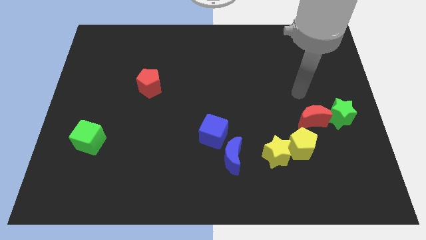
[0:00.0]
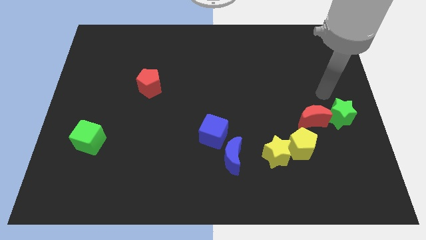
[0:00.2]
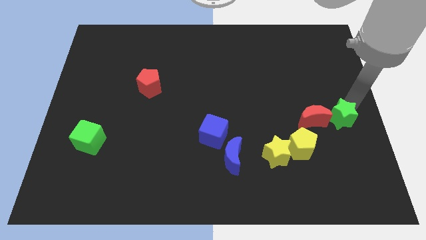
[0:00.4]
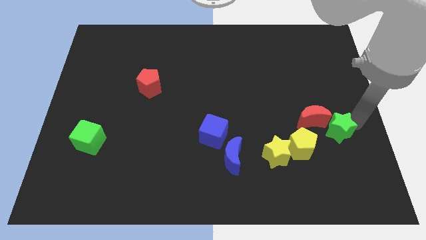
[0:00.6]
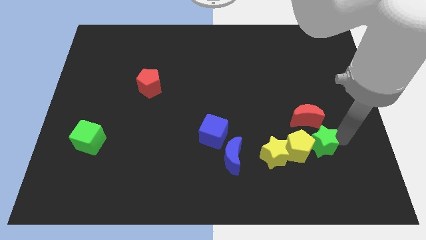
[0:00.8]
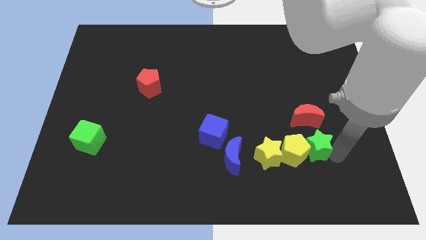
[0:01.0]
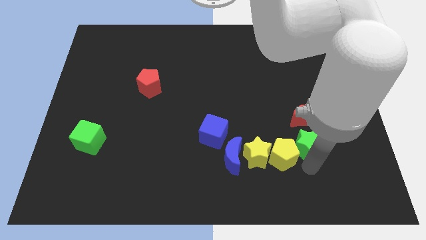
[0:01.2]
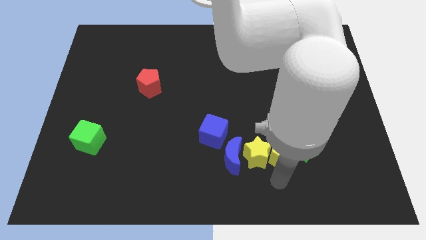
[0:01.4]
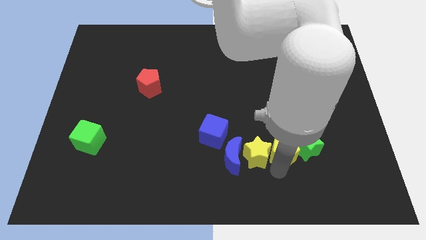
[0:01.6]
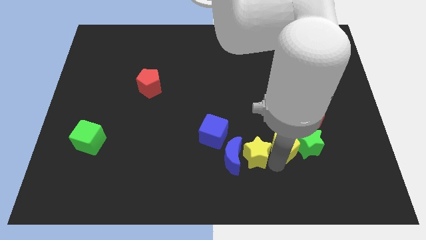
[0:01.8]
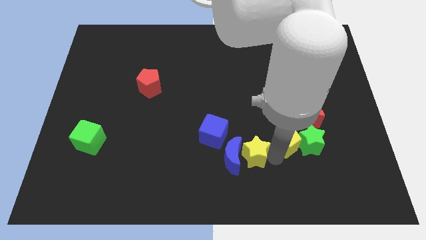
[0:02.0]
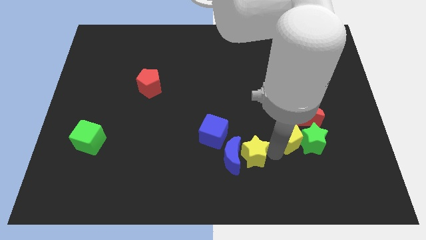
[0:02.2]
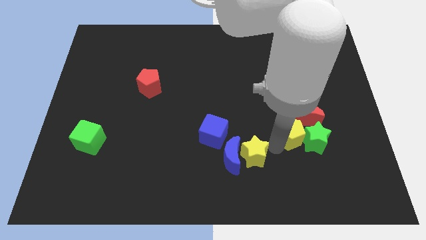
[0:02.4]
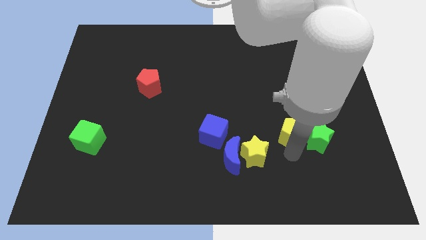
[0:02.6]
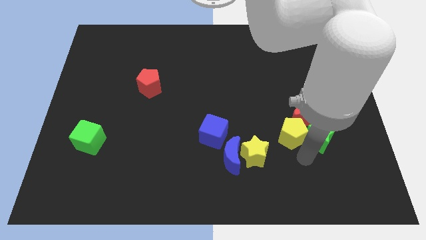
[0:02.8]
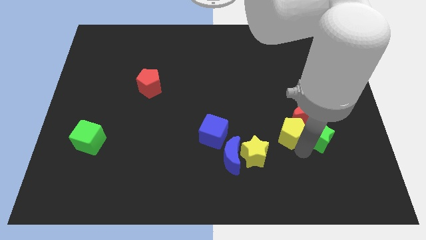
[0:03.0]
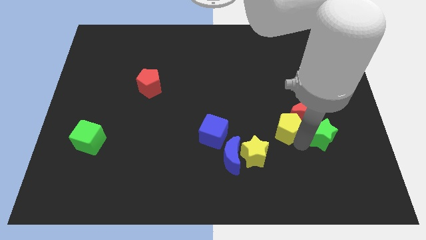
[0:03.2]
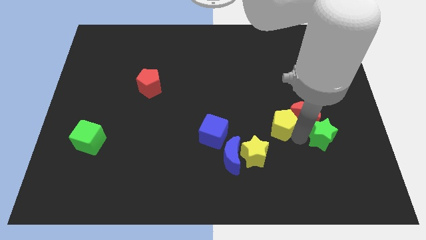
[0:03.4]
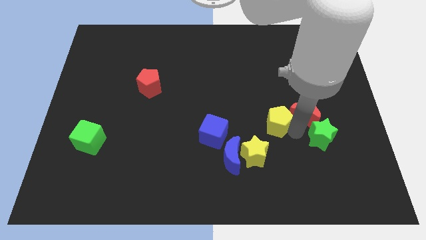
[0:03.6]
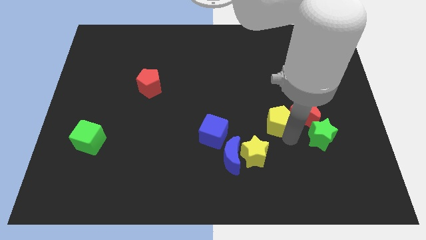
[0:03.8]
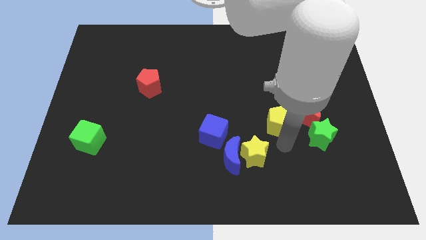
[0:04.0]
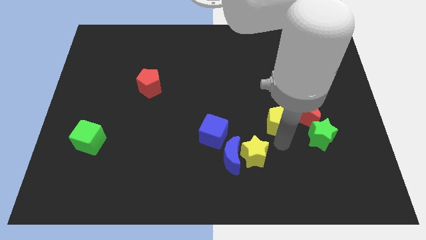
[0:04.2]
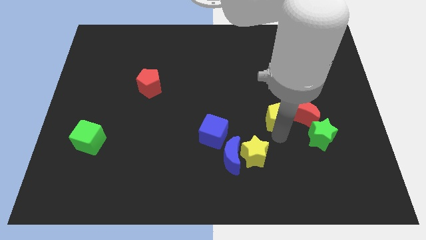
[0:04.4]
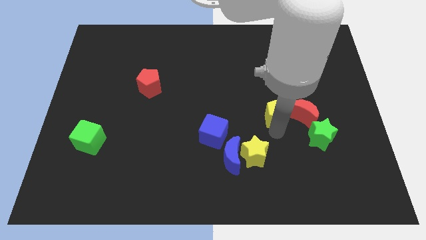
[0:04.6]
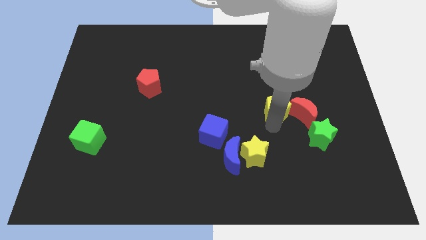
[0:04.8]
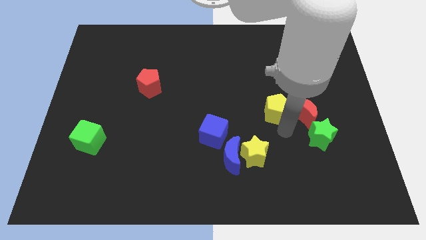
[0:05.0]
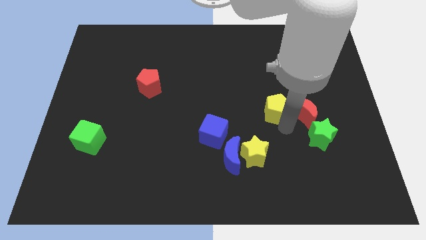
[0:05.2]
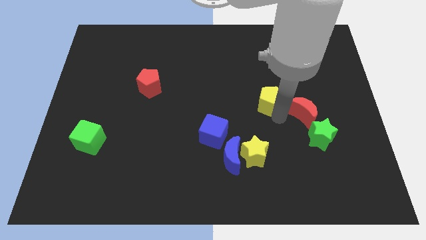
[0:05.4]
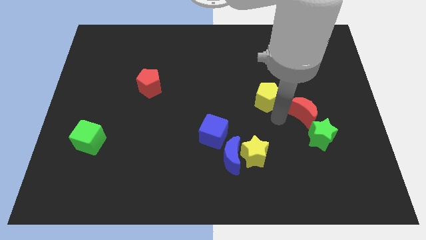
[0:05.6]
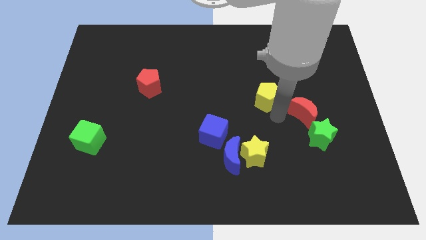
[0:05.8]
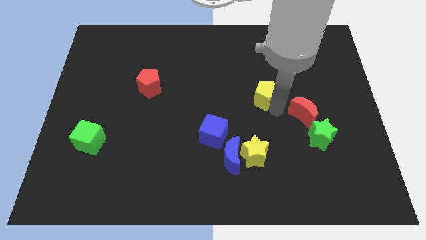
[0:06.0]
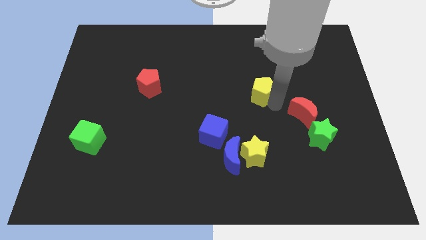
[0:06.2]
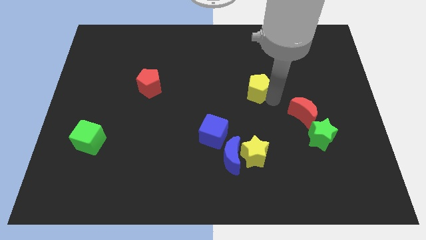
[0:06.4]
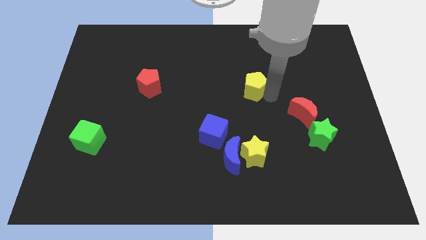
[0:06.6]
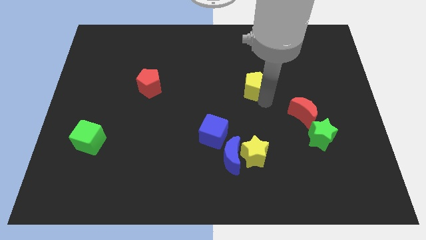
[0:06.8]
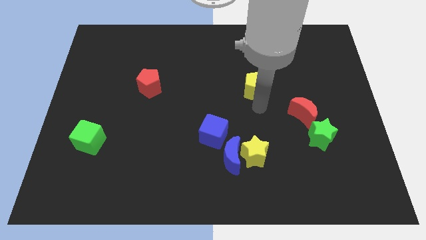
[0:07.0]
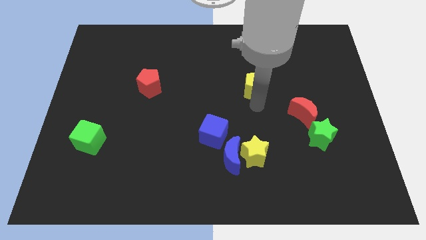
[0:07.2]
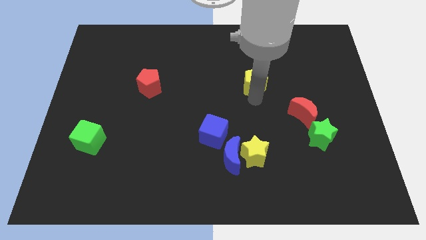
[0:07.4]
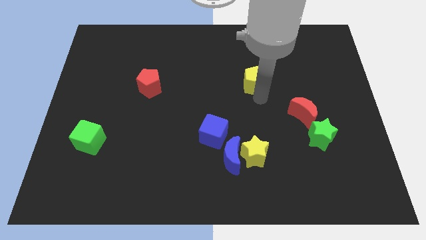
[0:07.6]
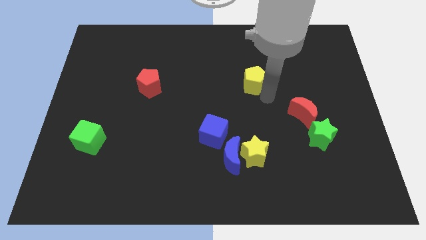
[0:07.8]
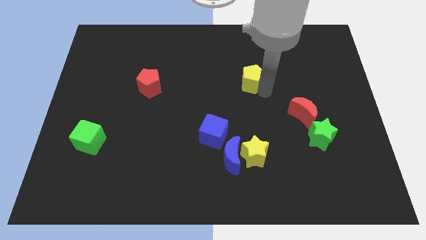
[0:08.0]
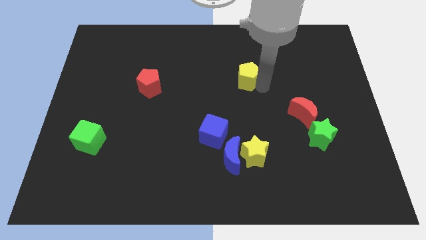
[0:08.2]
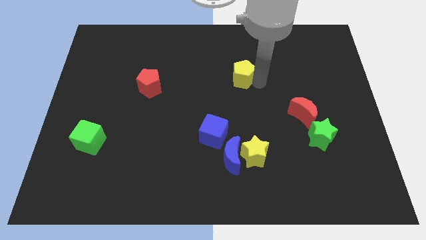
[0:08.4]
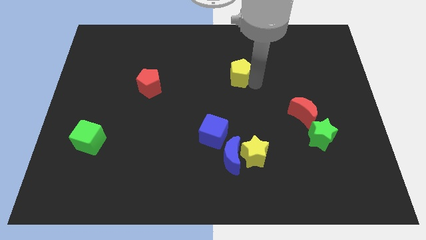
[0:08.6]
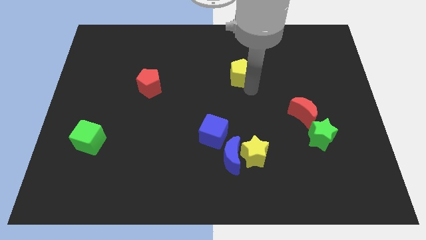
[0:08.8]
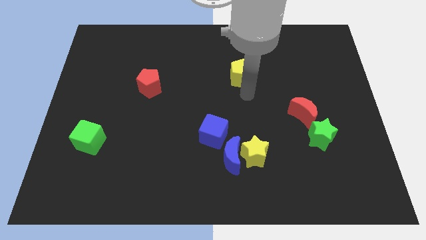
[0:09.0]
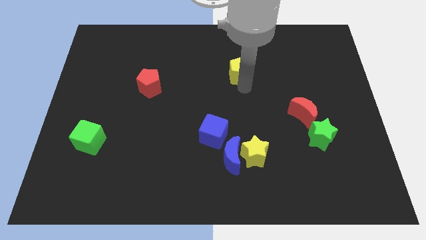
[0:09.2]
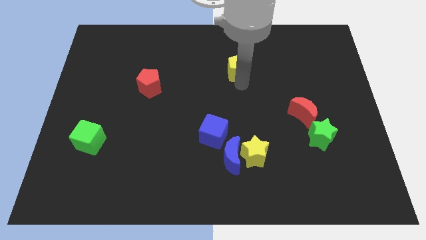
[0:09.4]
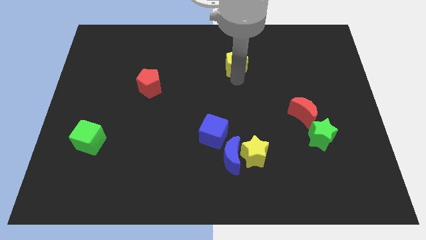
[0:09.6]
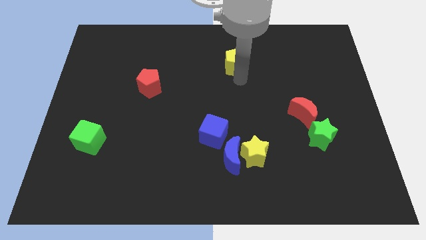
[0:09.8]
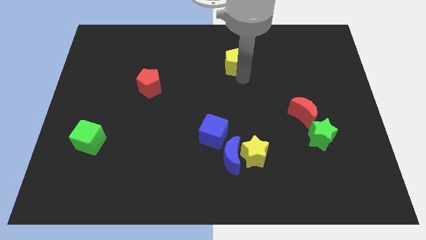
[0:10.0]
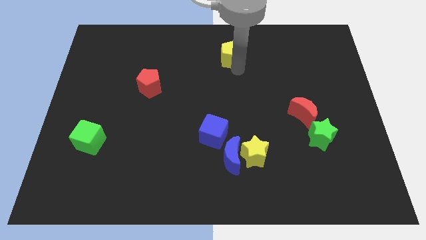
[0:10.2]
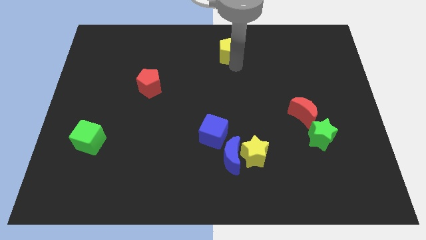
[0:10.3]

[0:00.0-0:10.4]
put the yellow pentagon to the towards your base

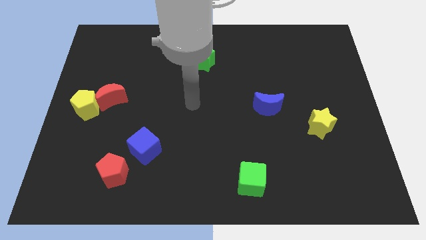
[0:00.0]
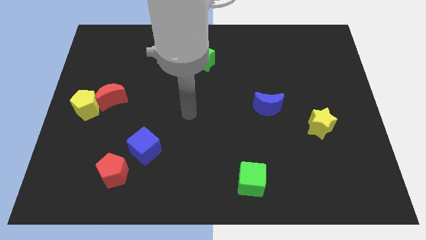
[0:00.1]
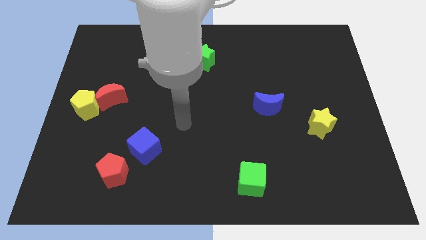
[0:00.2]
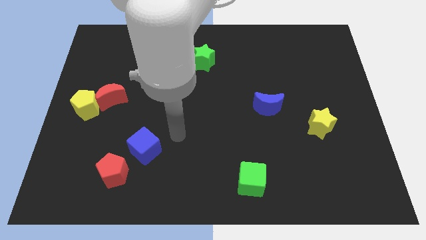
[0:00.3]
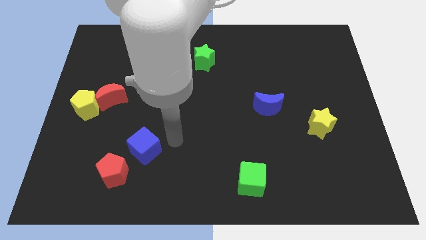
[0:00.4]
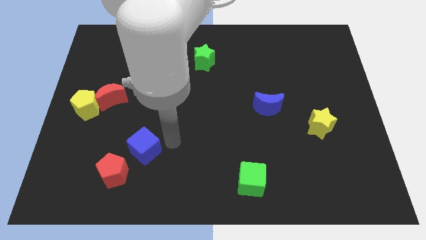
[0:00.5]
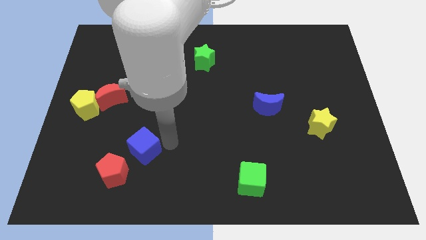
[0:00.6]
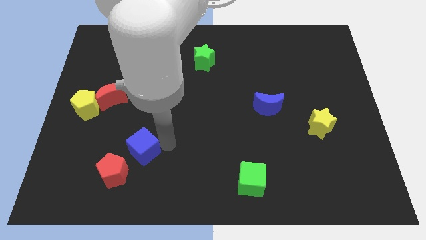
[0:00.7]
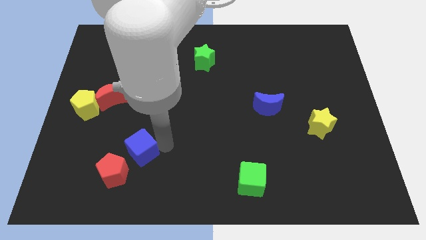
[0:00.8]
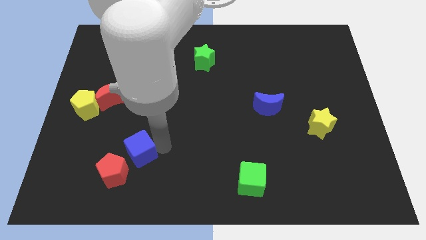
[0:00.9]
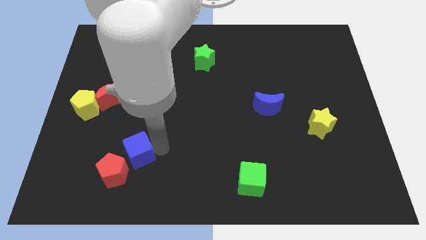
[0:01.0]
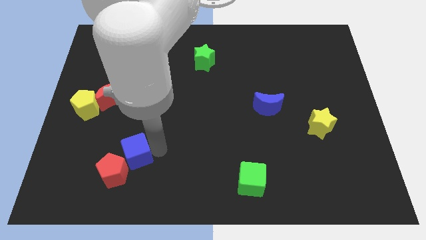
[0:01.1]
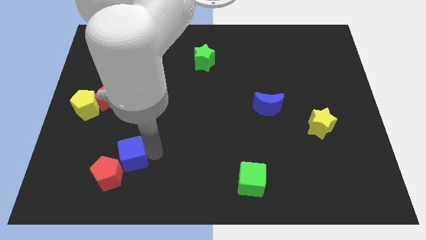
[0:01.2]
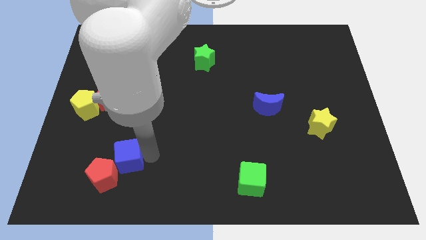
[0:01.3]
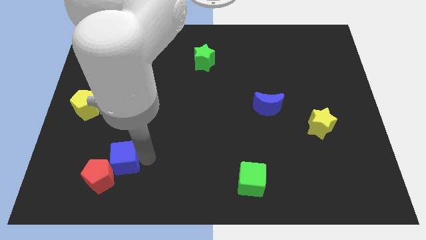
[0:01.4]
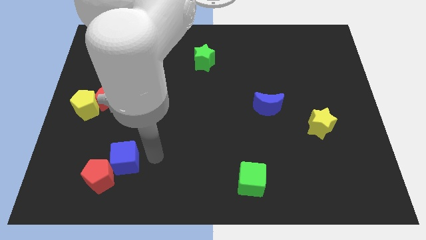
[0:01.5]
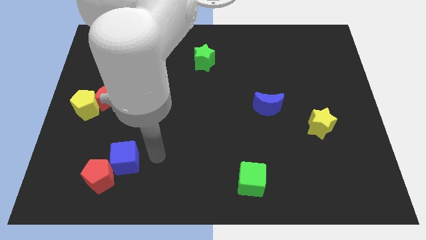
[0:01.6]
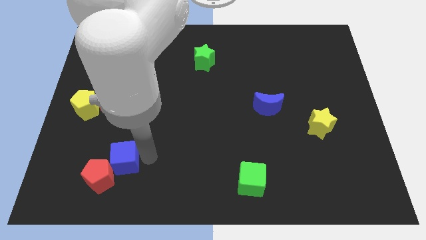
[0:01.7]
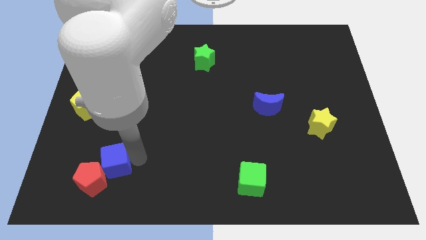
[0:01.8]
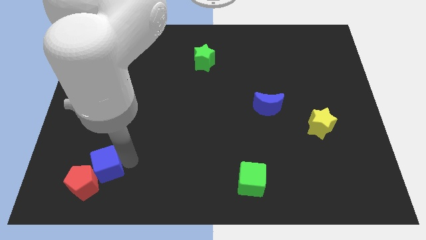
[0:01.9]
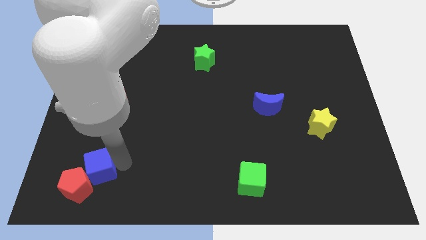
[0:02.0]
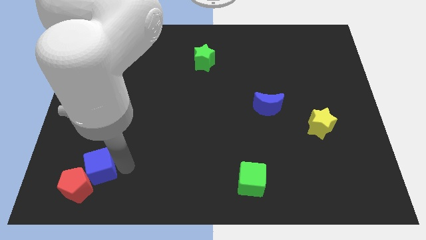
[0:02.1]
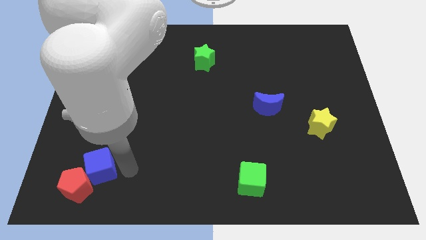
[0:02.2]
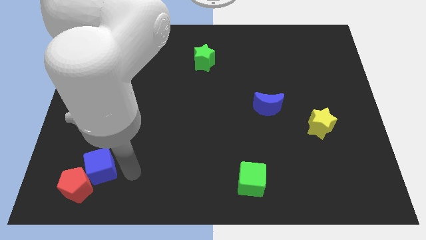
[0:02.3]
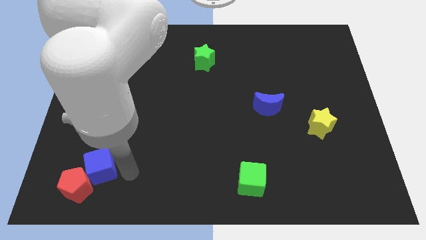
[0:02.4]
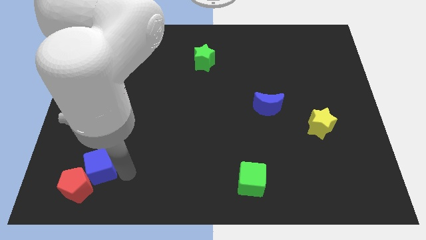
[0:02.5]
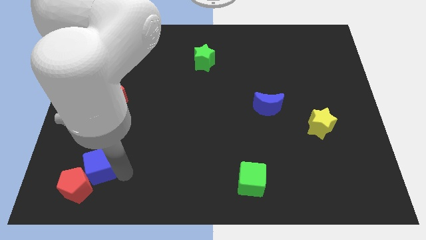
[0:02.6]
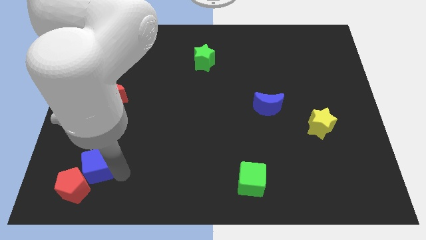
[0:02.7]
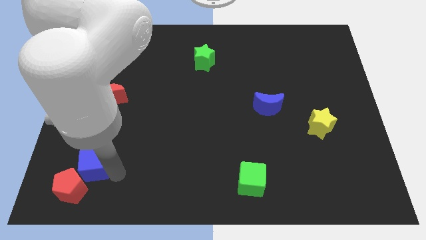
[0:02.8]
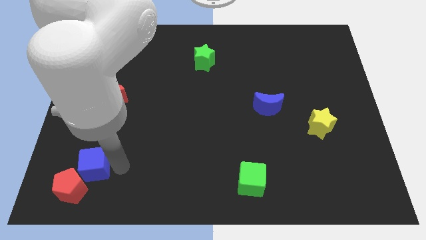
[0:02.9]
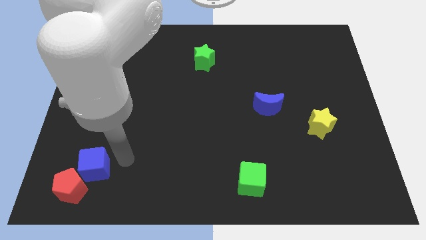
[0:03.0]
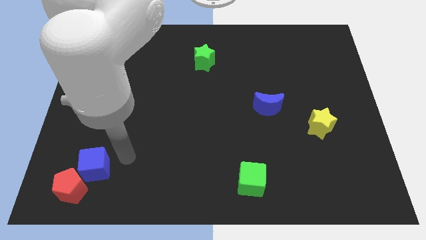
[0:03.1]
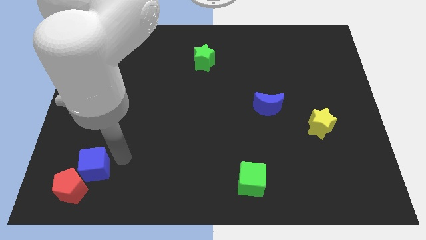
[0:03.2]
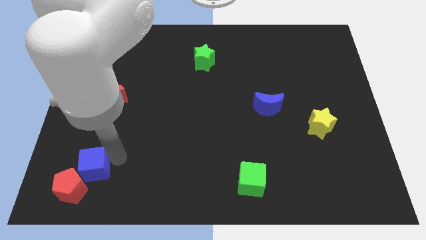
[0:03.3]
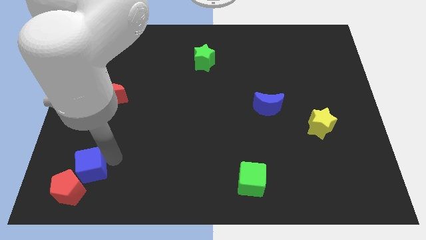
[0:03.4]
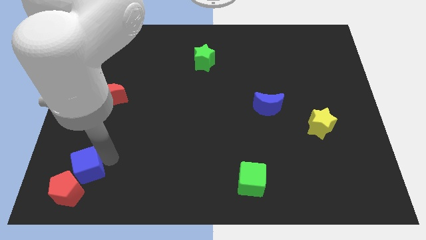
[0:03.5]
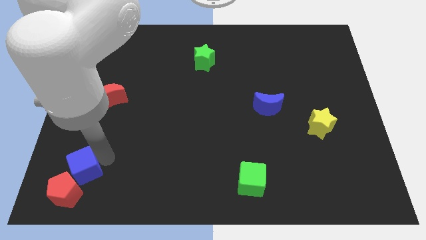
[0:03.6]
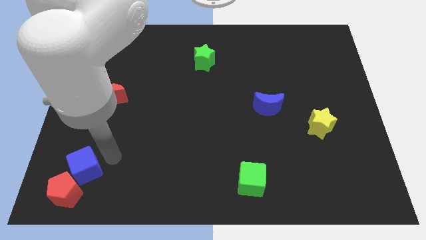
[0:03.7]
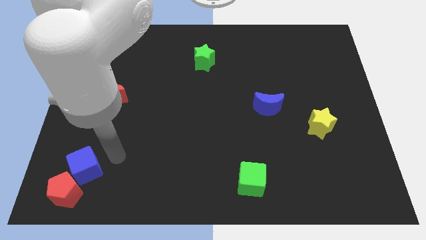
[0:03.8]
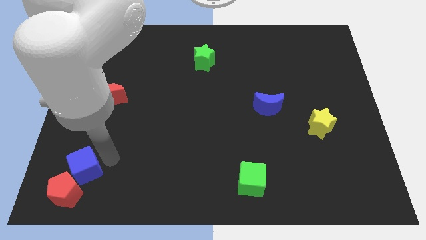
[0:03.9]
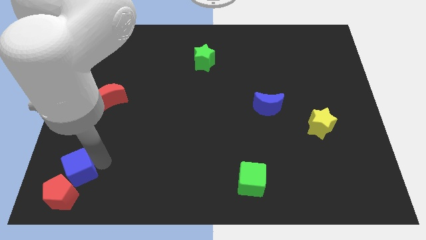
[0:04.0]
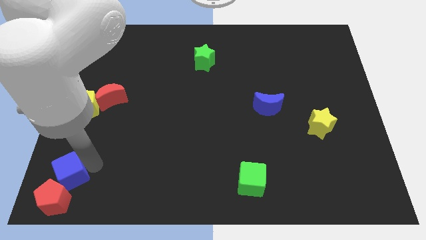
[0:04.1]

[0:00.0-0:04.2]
slide the blue cube to the bottom left of the board
